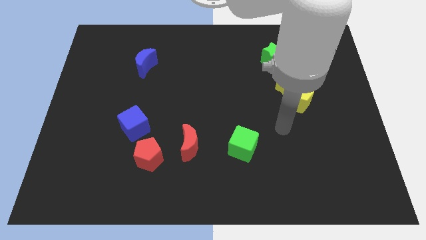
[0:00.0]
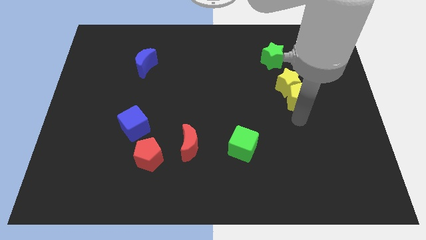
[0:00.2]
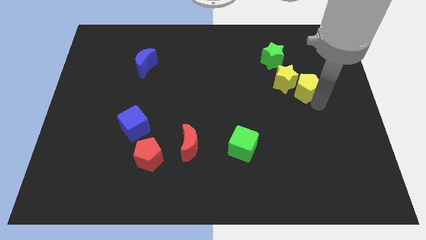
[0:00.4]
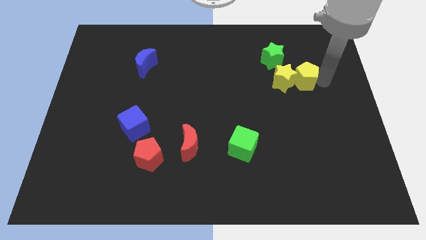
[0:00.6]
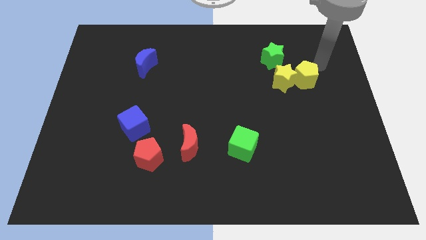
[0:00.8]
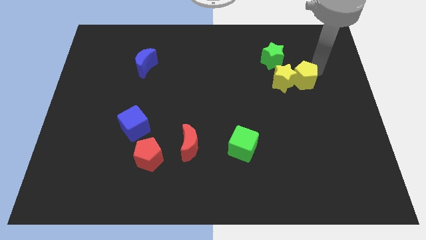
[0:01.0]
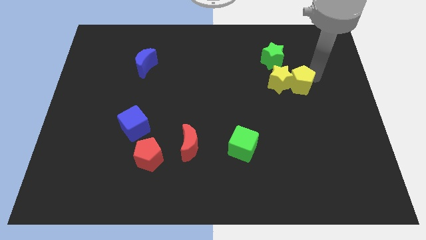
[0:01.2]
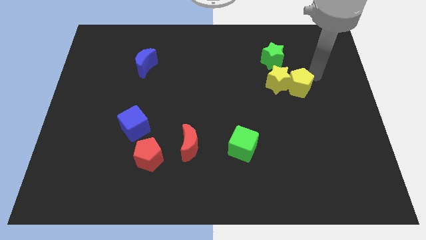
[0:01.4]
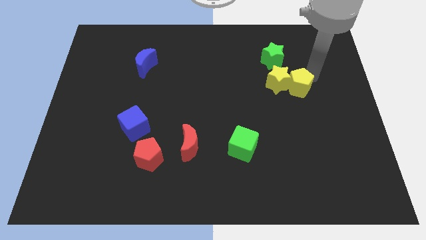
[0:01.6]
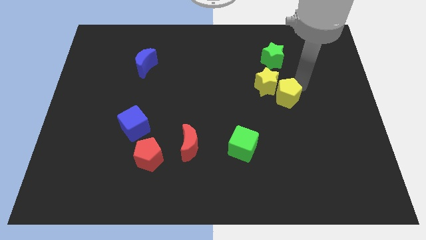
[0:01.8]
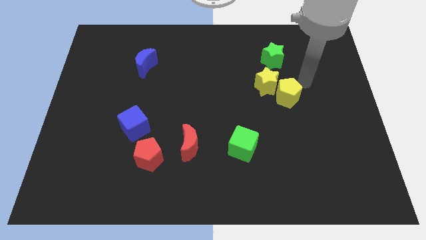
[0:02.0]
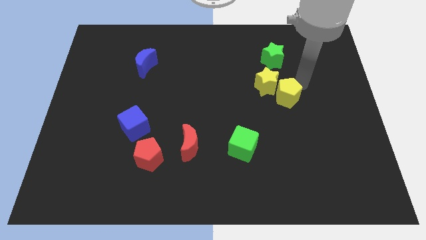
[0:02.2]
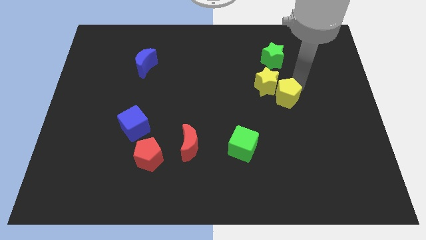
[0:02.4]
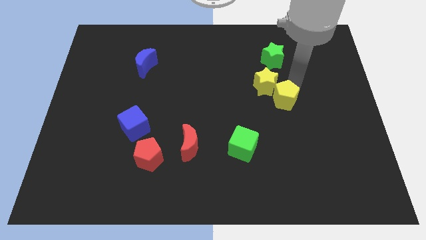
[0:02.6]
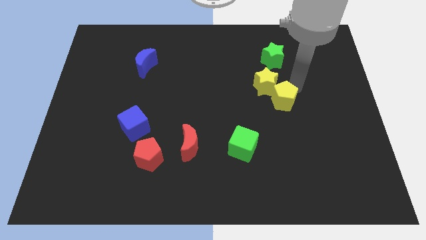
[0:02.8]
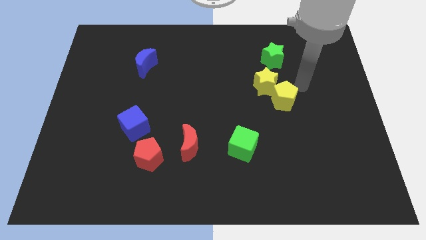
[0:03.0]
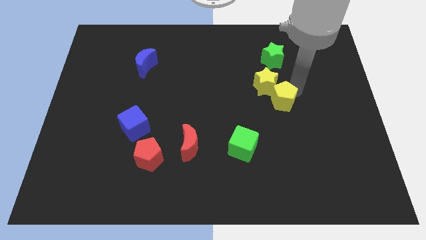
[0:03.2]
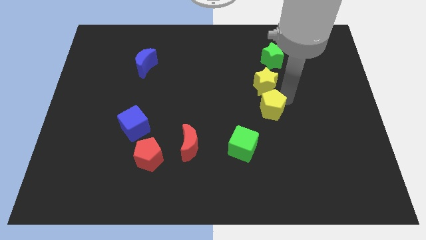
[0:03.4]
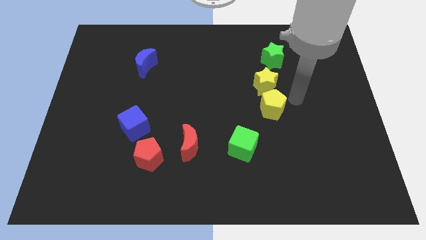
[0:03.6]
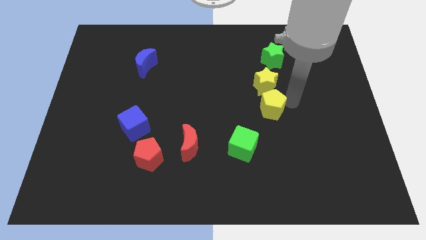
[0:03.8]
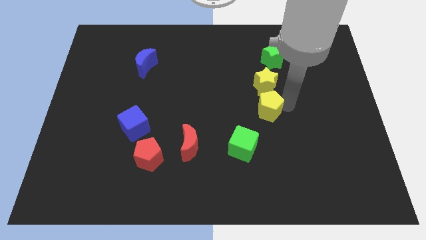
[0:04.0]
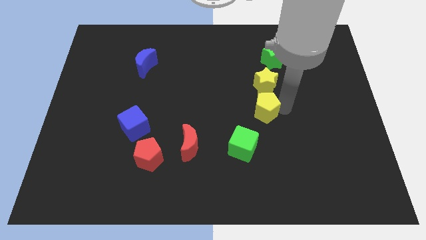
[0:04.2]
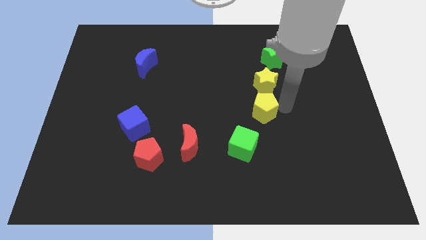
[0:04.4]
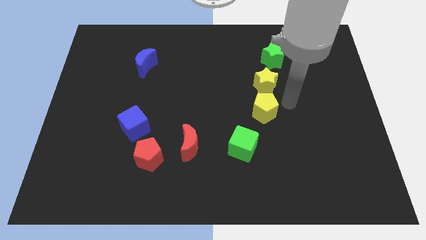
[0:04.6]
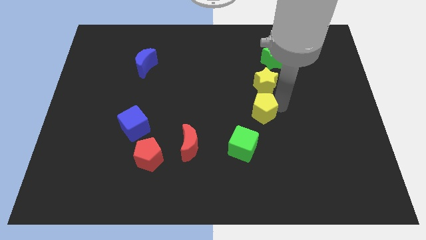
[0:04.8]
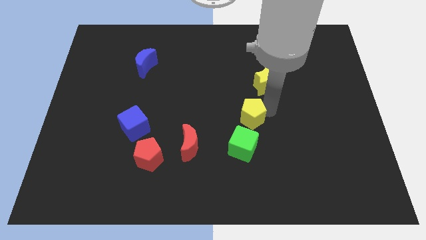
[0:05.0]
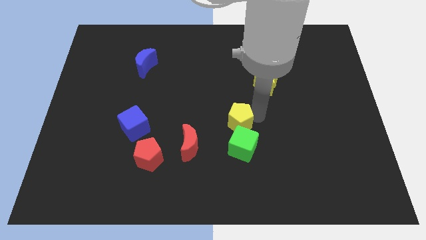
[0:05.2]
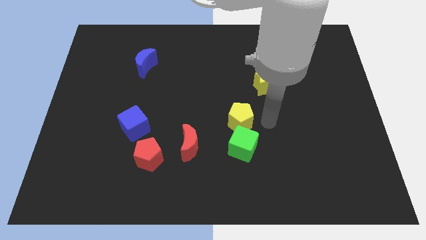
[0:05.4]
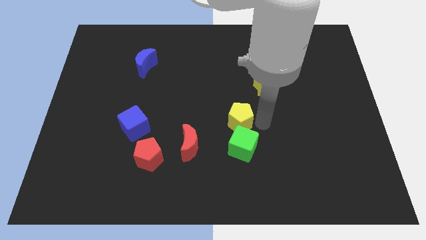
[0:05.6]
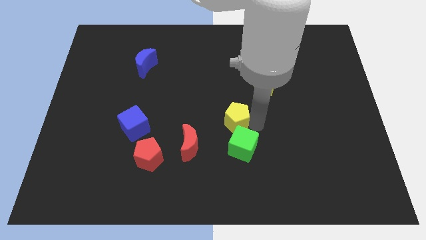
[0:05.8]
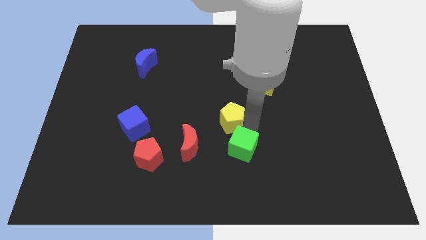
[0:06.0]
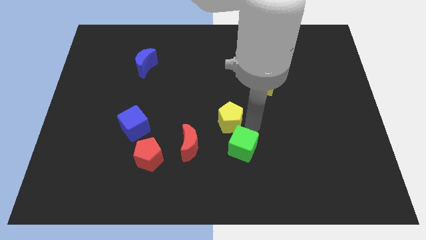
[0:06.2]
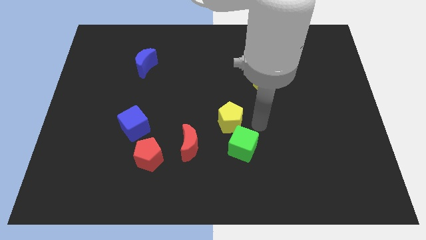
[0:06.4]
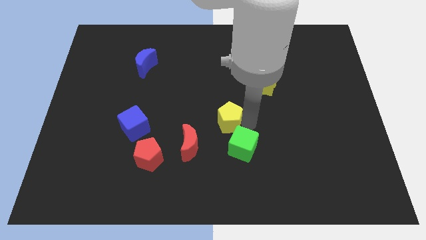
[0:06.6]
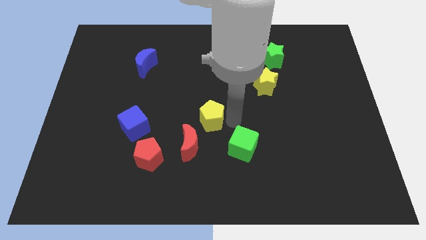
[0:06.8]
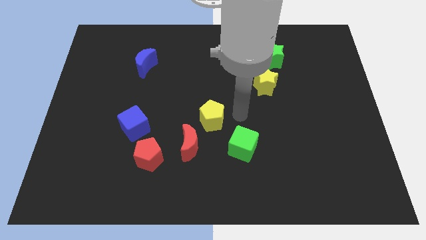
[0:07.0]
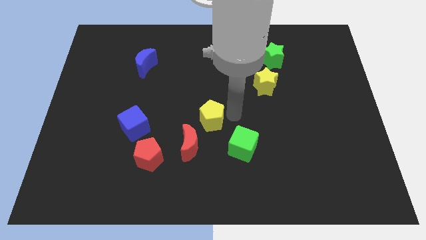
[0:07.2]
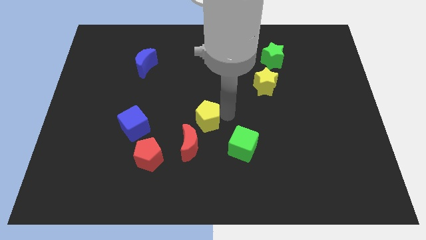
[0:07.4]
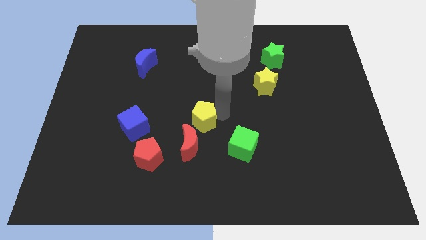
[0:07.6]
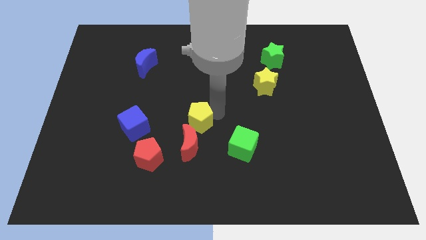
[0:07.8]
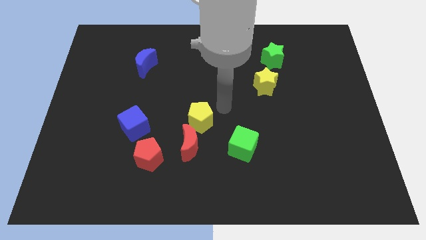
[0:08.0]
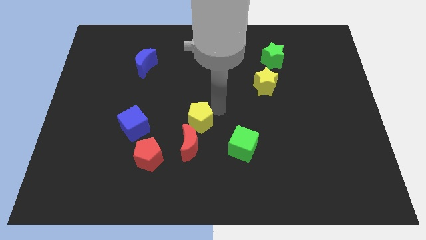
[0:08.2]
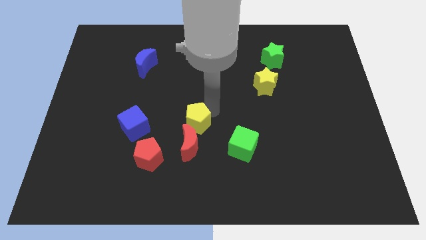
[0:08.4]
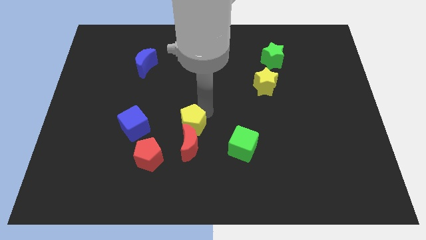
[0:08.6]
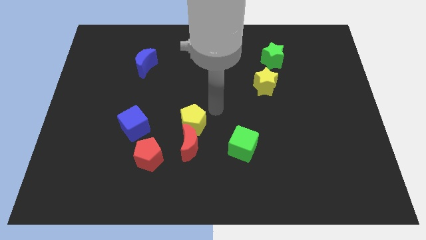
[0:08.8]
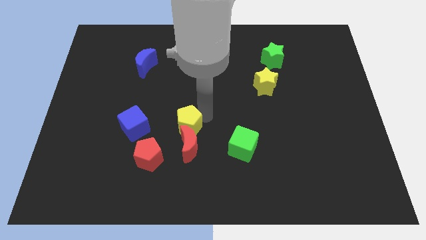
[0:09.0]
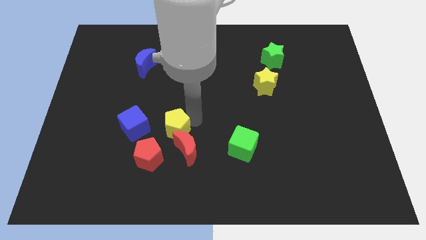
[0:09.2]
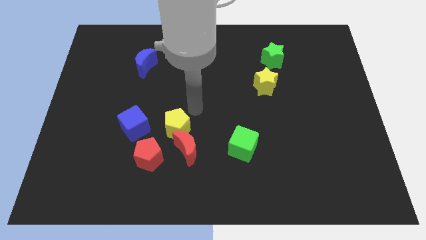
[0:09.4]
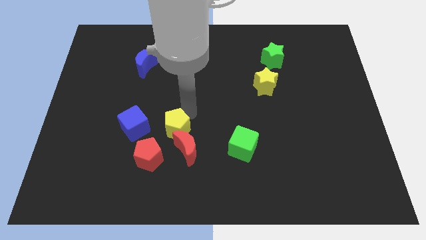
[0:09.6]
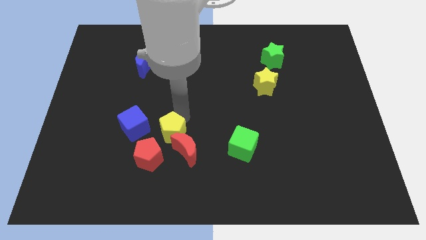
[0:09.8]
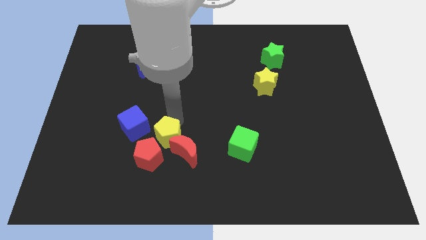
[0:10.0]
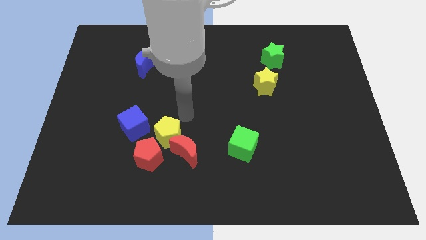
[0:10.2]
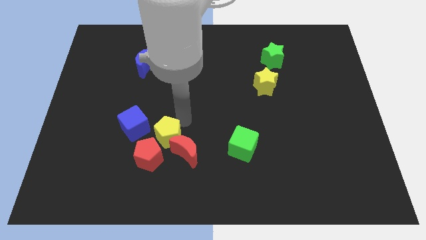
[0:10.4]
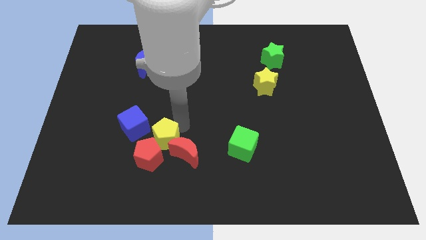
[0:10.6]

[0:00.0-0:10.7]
push the yellow pentagon close to the red pentagon

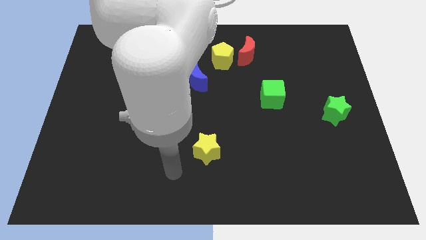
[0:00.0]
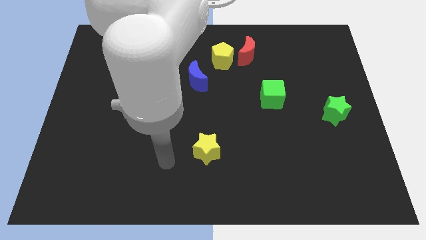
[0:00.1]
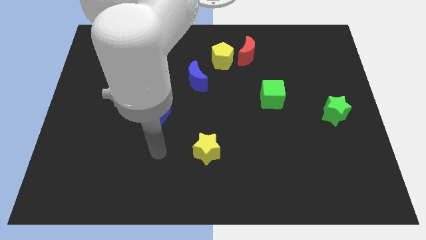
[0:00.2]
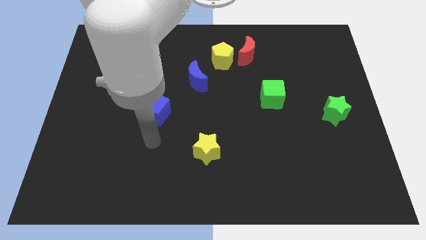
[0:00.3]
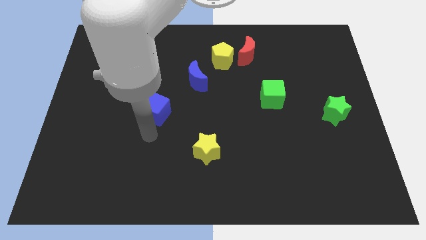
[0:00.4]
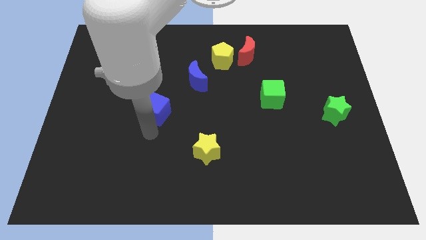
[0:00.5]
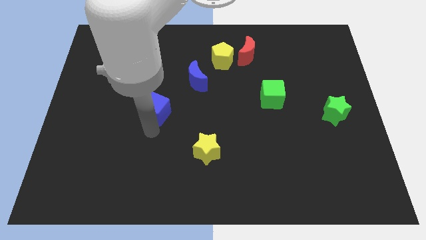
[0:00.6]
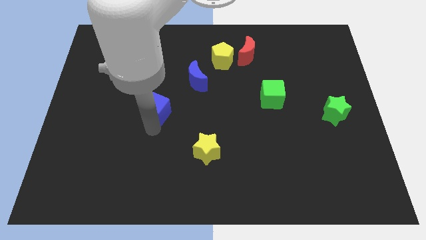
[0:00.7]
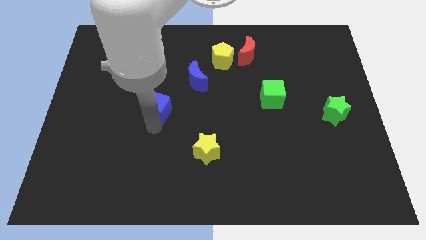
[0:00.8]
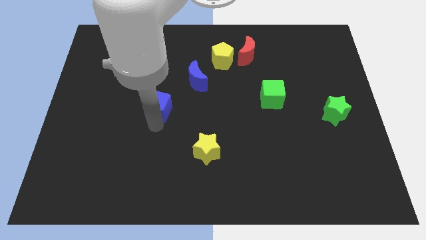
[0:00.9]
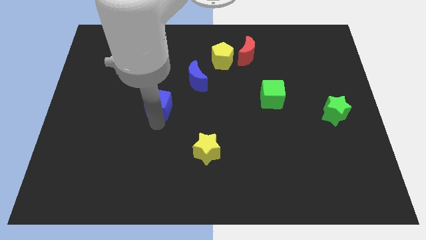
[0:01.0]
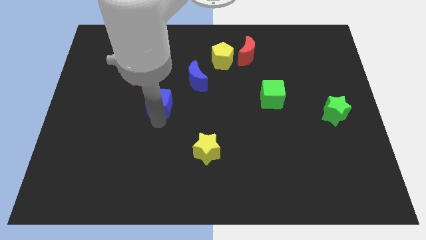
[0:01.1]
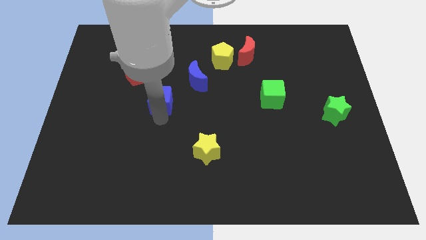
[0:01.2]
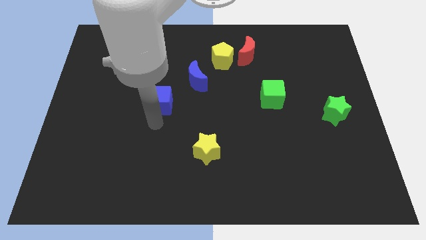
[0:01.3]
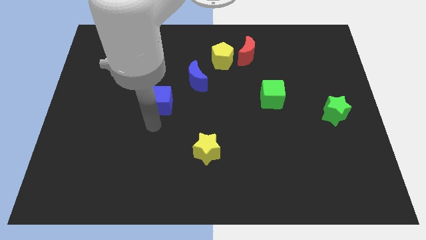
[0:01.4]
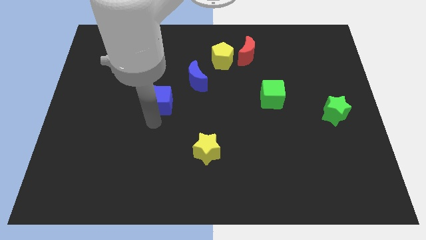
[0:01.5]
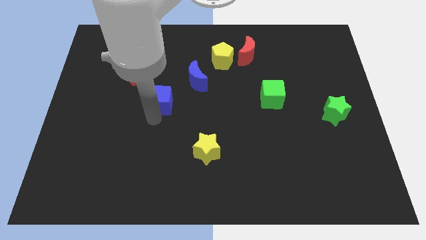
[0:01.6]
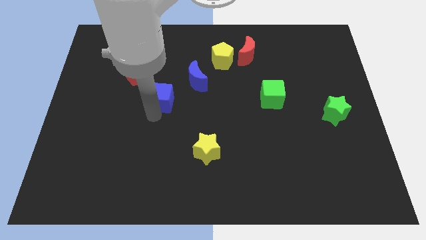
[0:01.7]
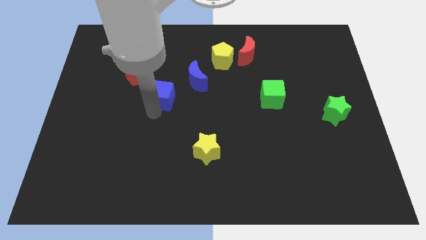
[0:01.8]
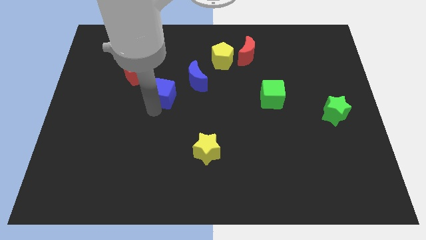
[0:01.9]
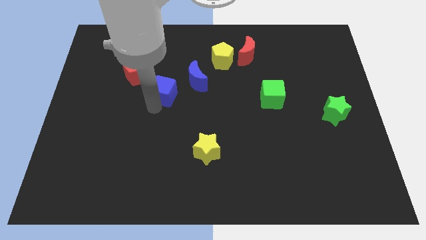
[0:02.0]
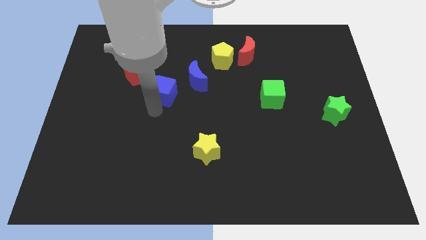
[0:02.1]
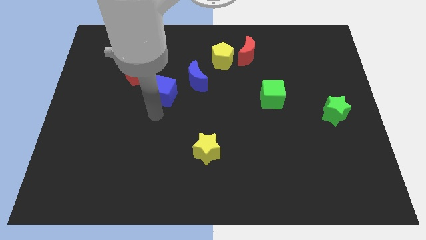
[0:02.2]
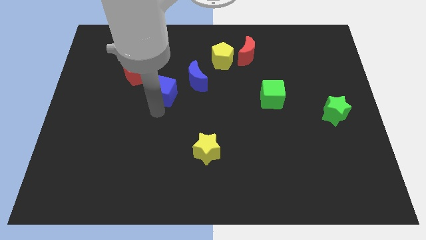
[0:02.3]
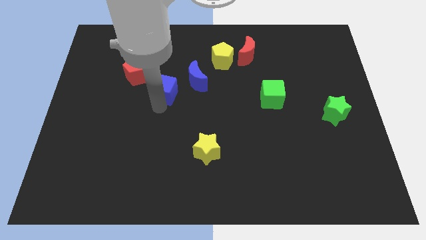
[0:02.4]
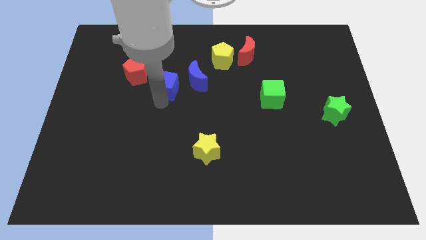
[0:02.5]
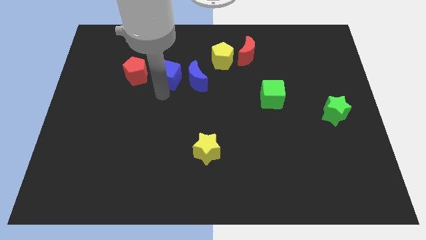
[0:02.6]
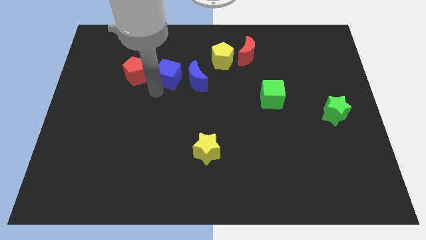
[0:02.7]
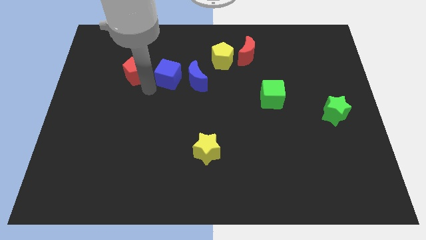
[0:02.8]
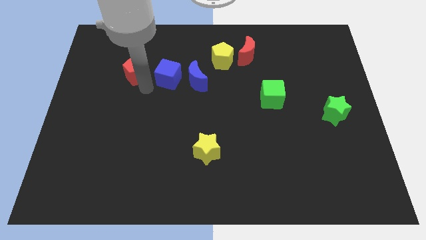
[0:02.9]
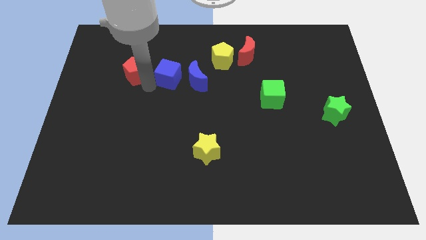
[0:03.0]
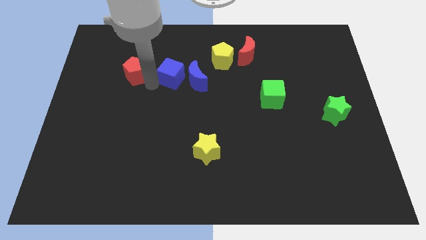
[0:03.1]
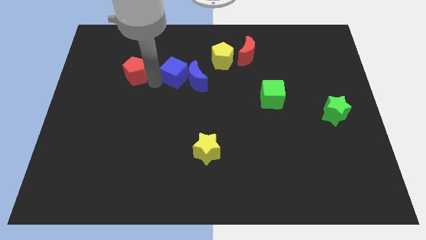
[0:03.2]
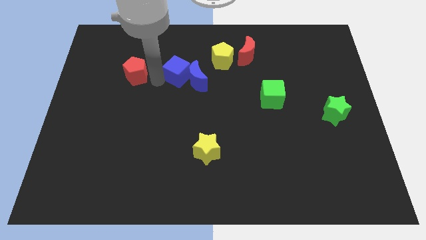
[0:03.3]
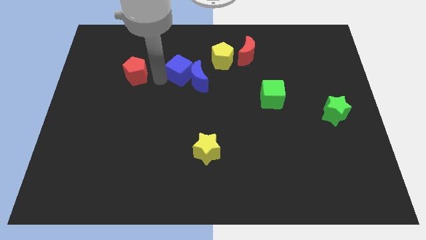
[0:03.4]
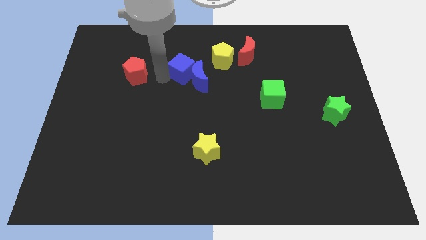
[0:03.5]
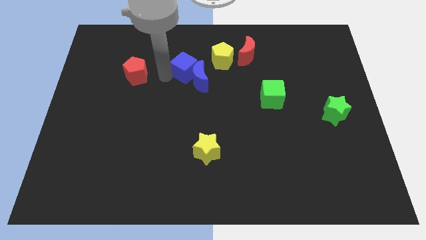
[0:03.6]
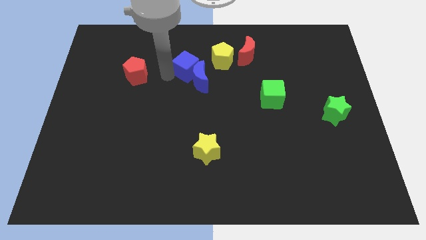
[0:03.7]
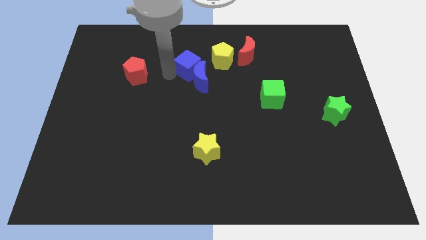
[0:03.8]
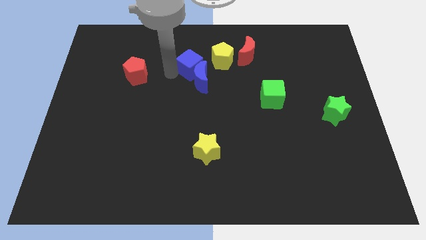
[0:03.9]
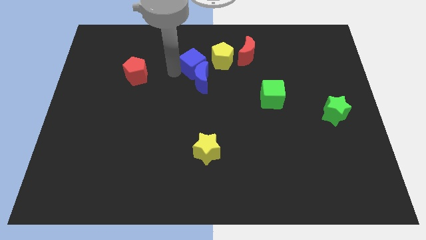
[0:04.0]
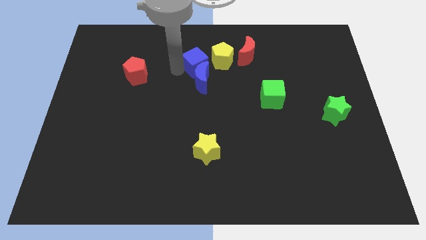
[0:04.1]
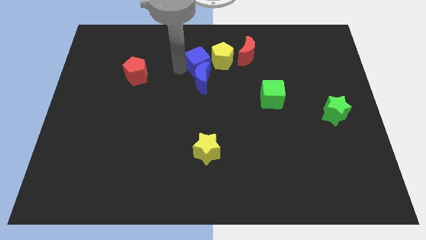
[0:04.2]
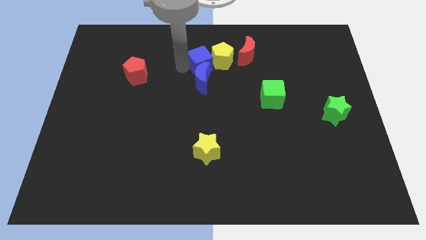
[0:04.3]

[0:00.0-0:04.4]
push the blue cube to the yellow pentagon
